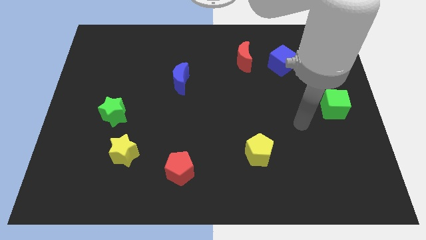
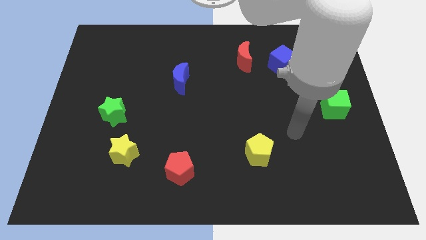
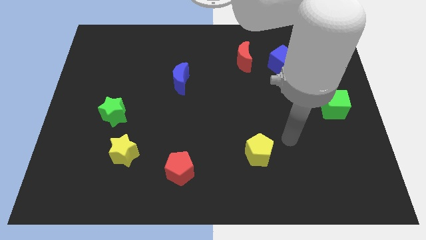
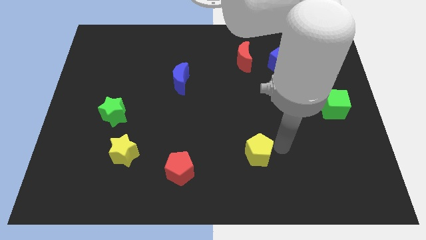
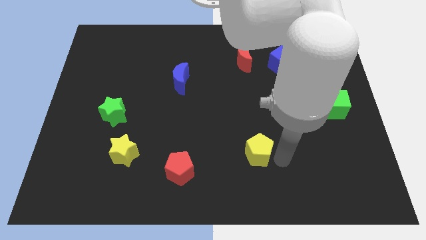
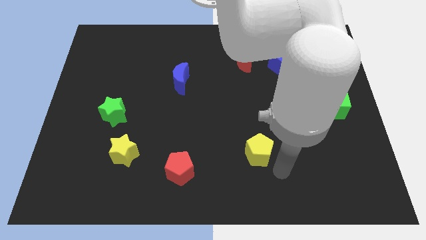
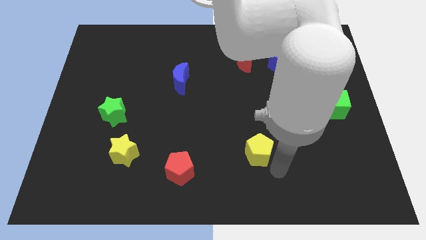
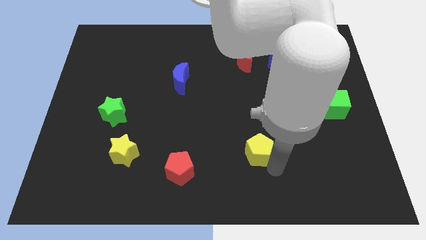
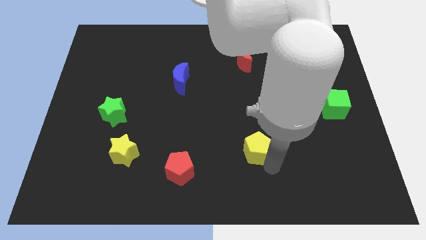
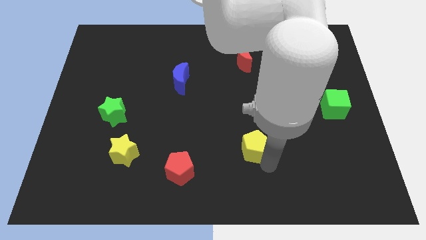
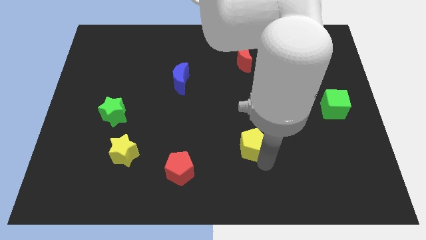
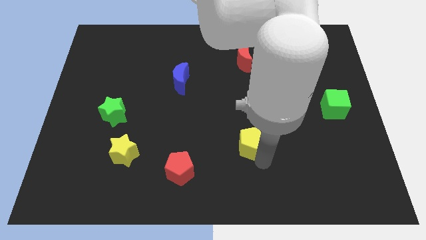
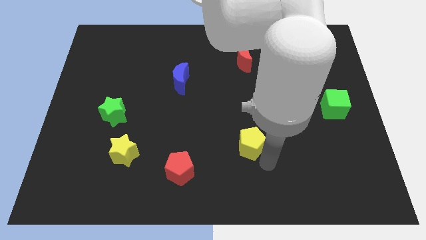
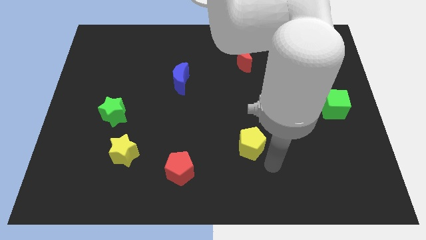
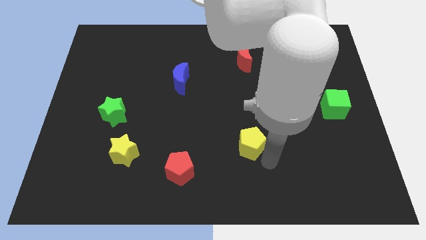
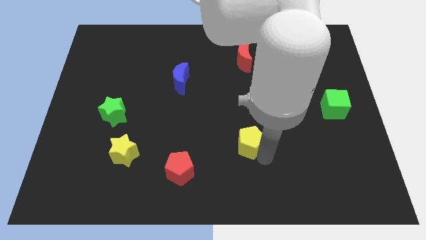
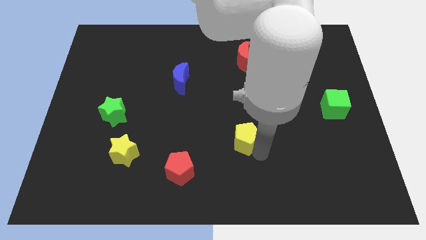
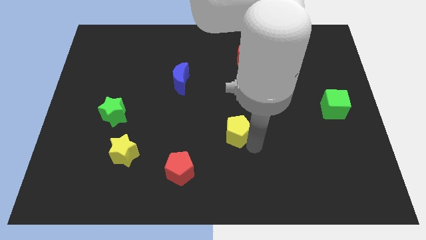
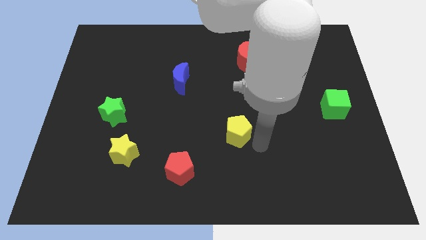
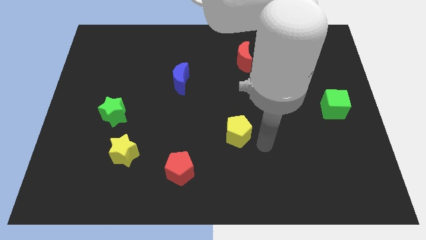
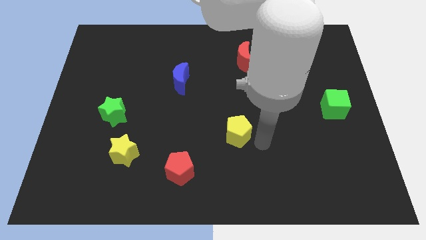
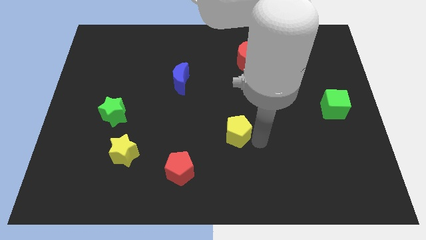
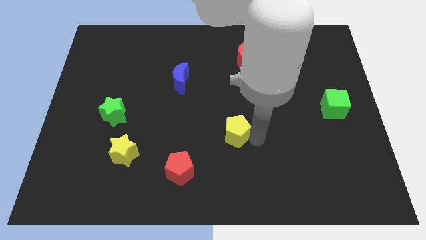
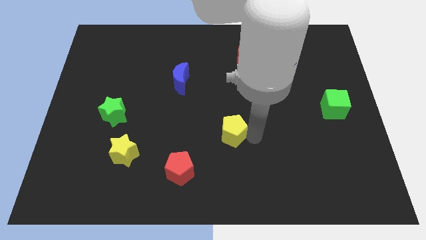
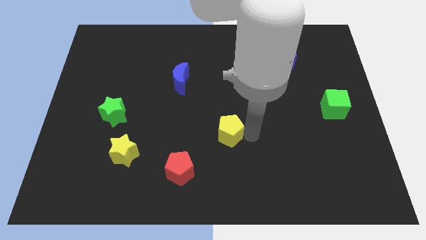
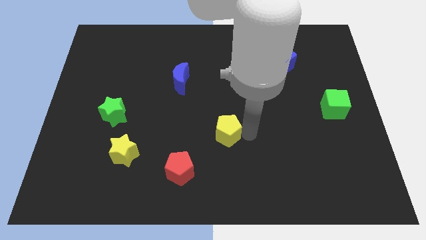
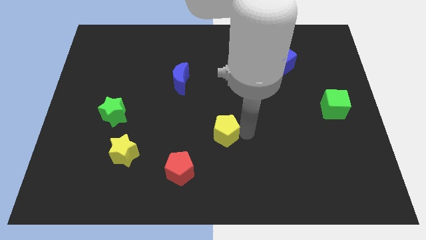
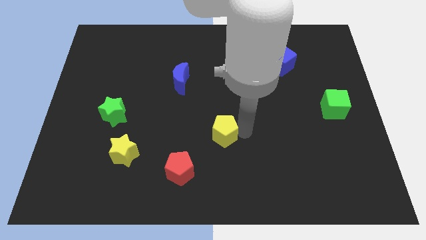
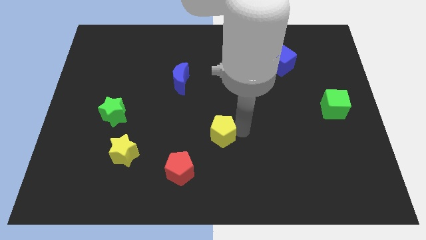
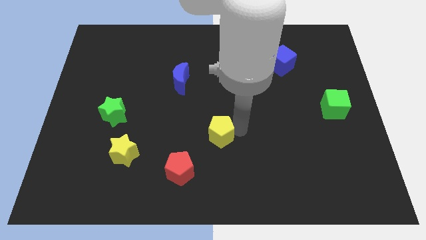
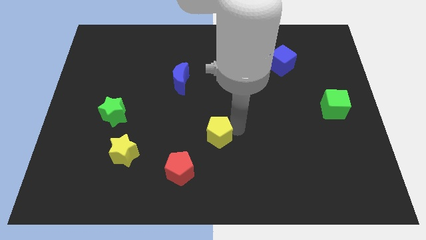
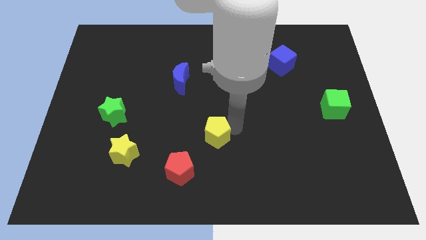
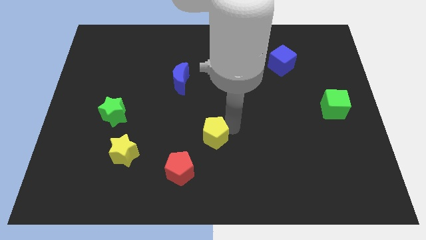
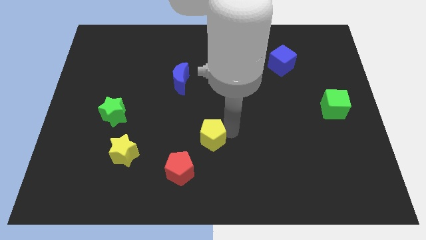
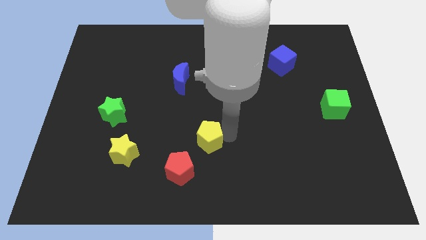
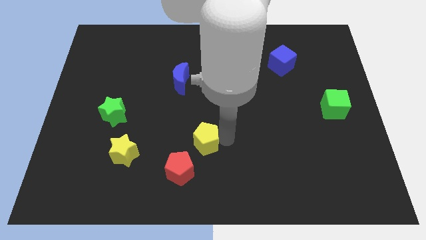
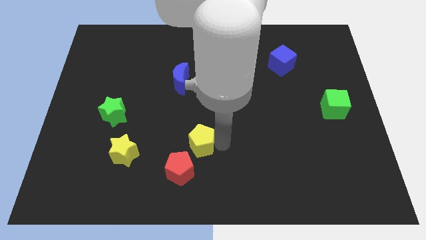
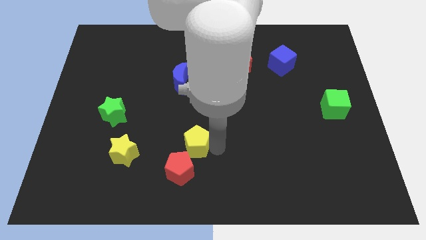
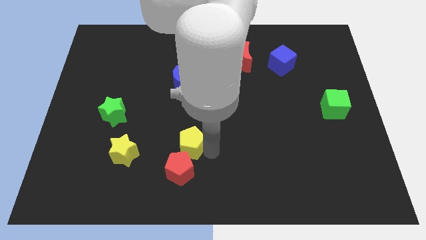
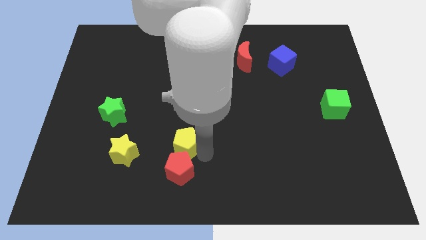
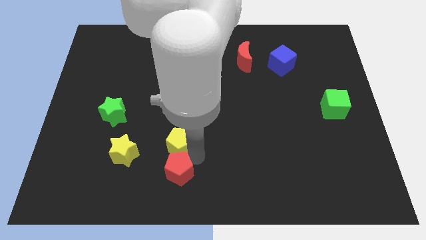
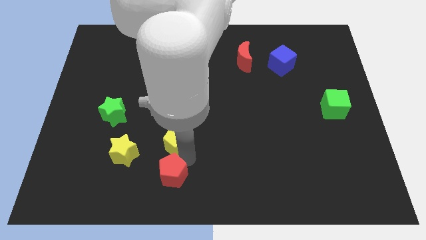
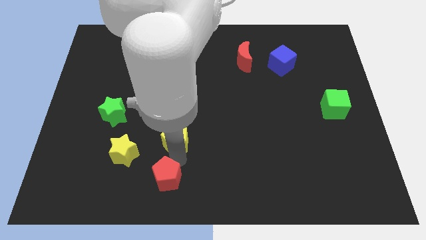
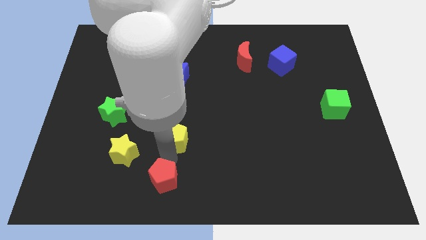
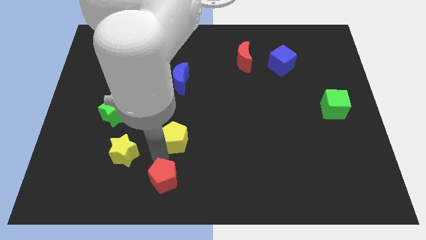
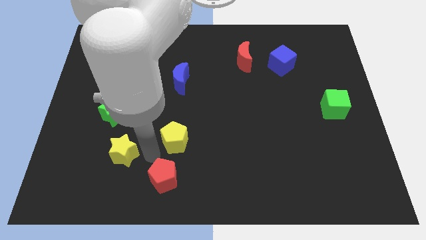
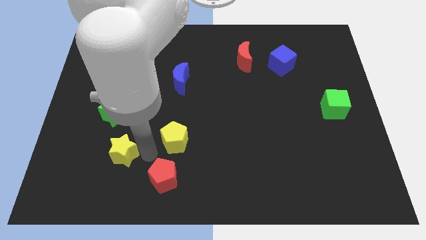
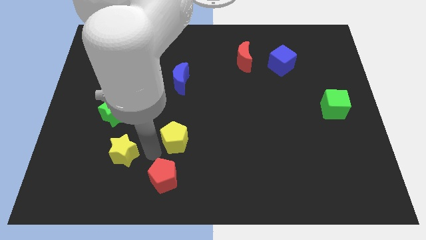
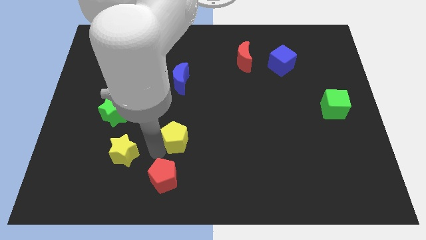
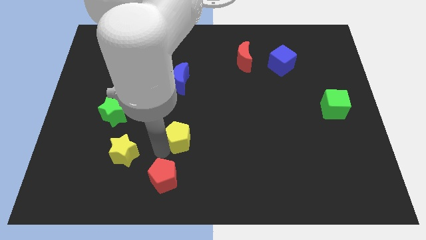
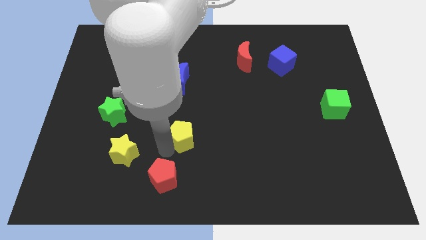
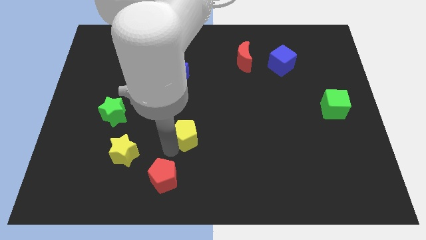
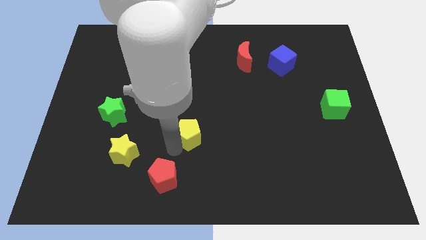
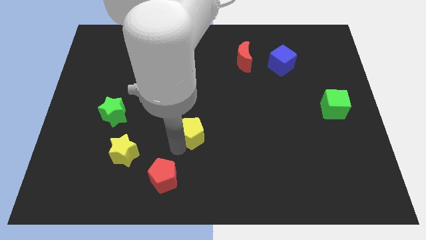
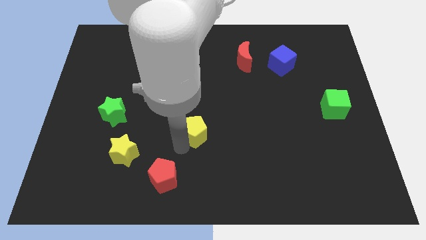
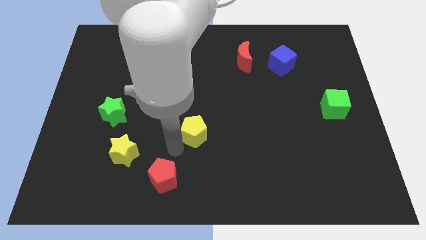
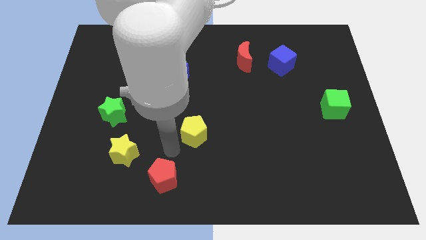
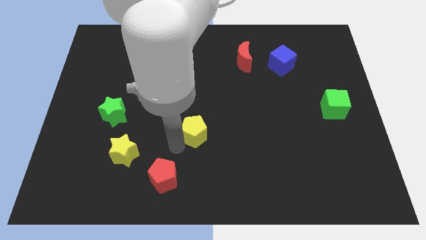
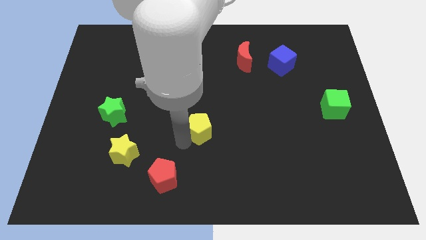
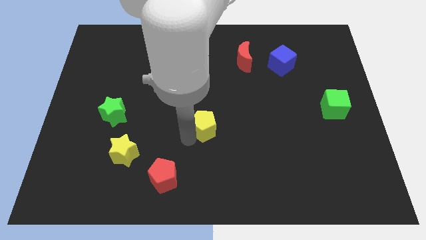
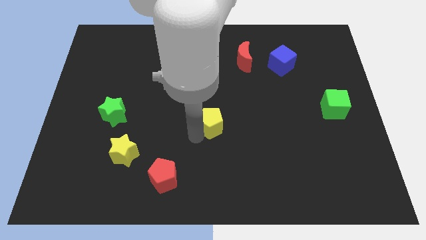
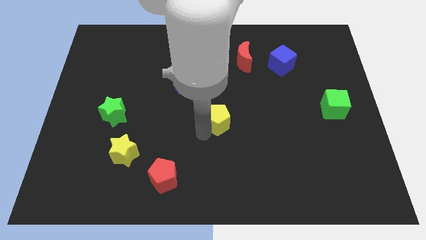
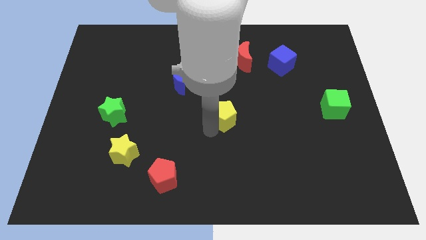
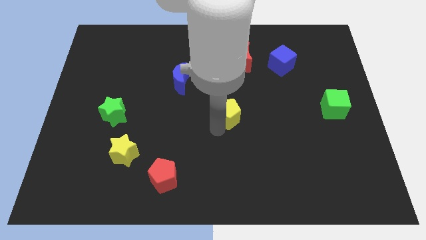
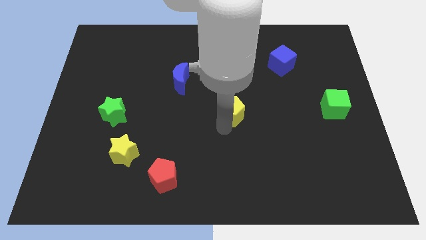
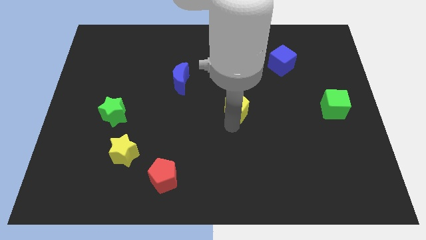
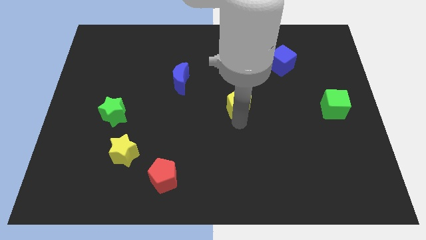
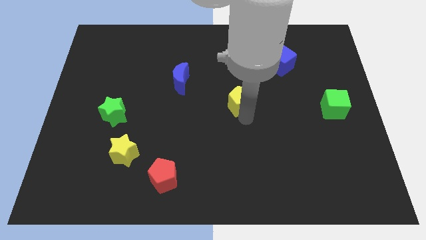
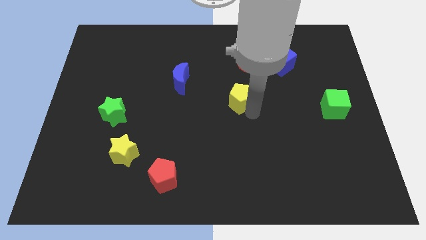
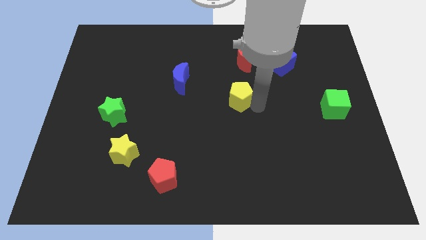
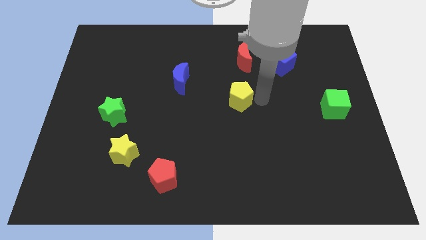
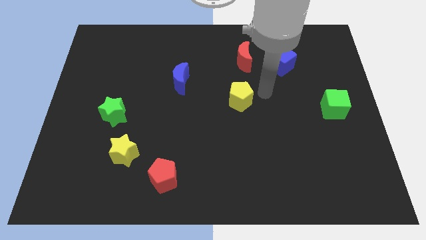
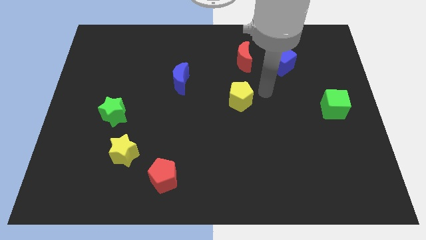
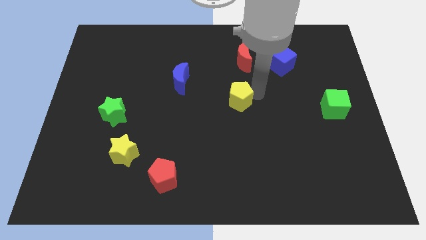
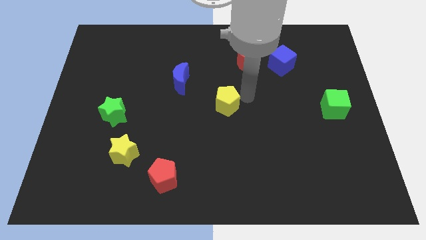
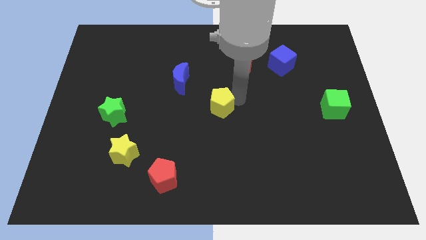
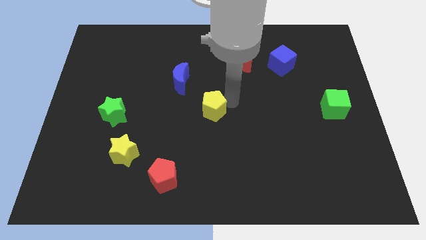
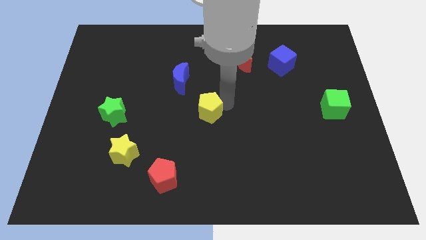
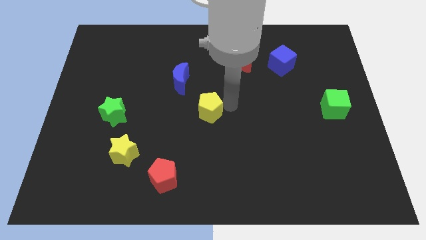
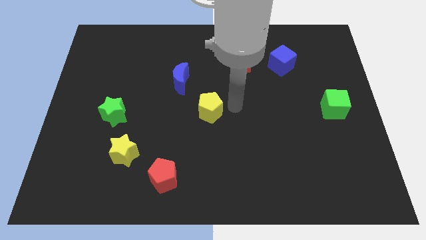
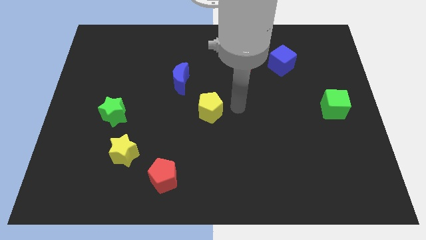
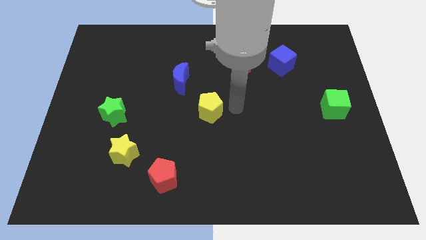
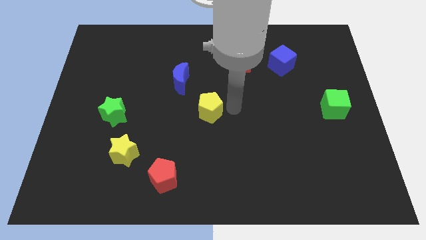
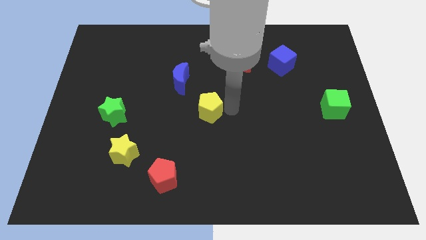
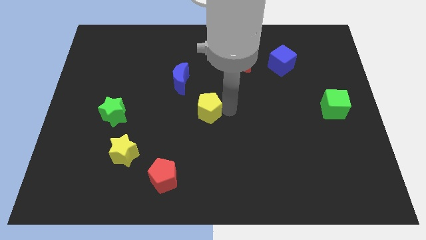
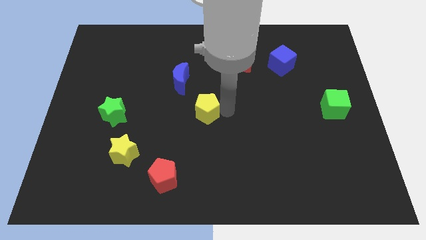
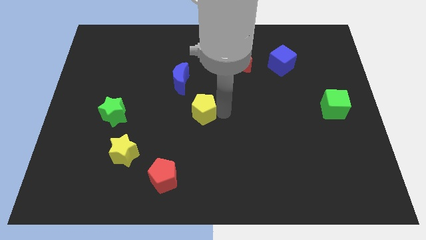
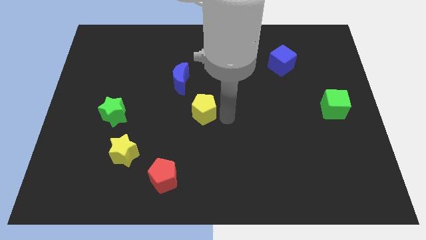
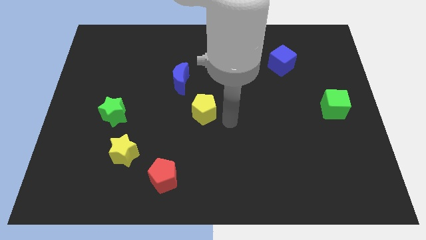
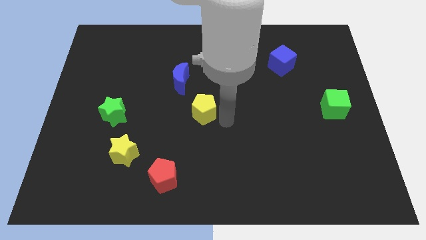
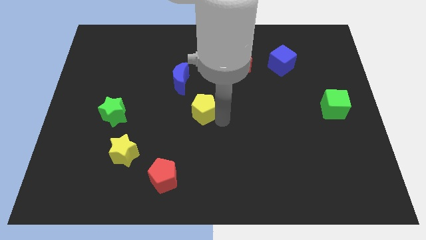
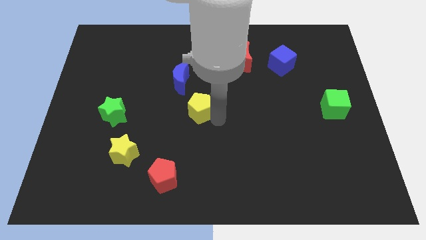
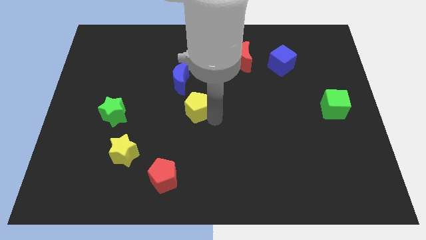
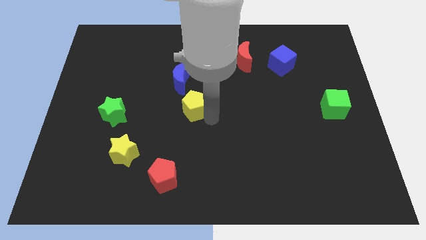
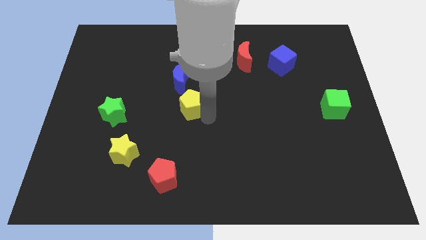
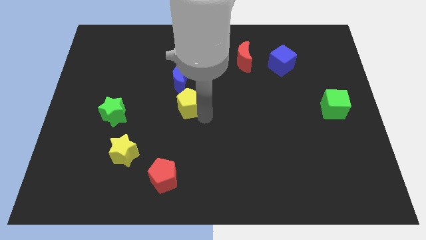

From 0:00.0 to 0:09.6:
move the yellow pentagon upwards and left diagonally
